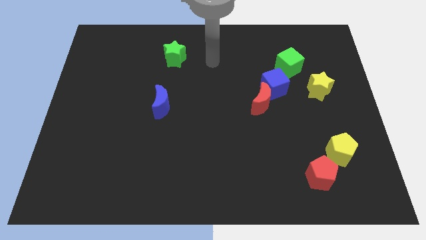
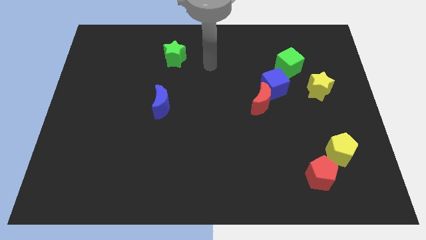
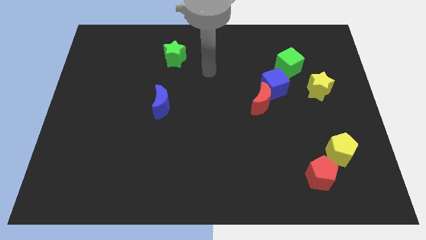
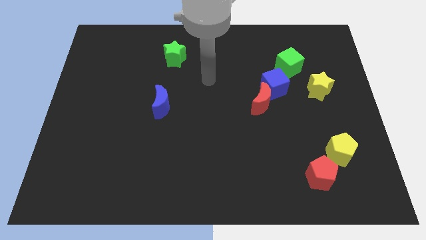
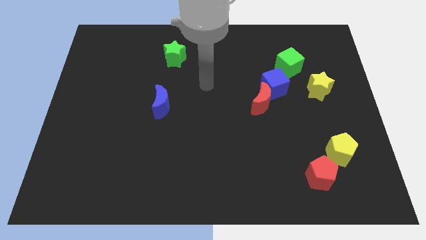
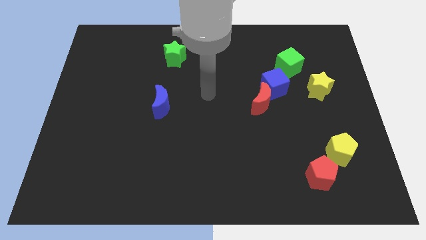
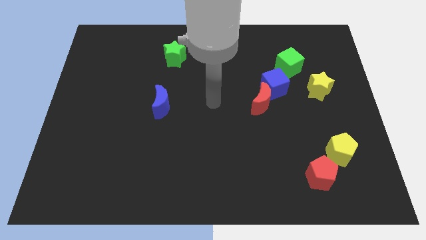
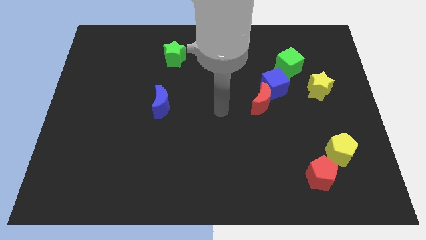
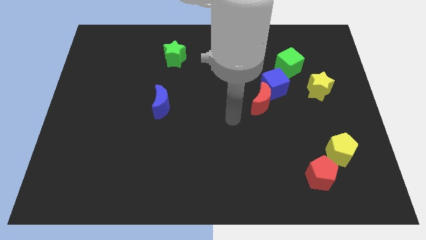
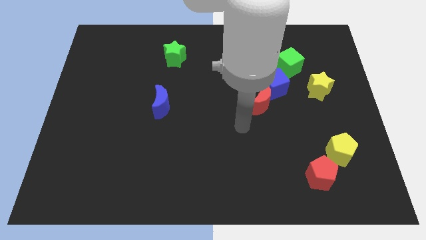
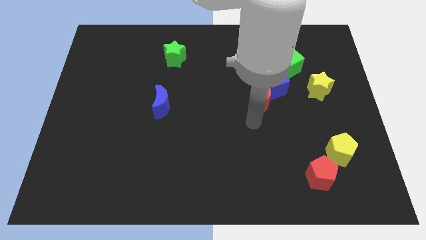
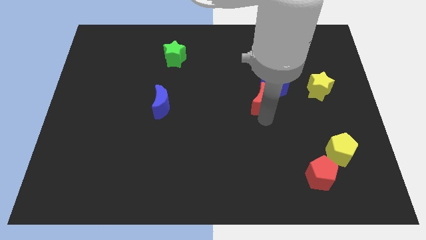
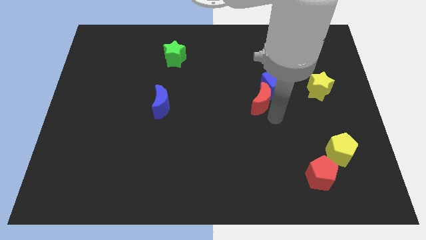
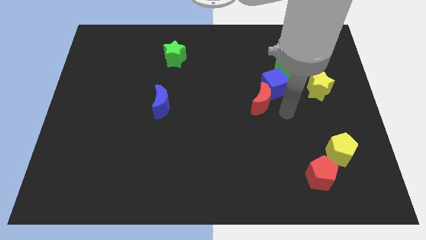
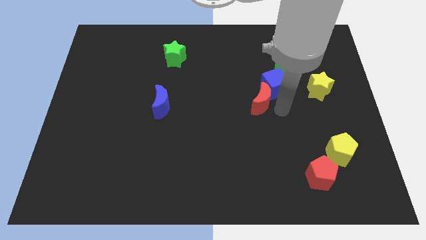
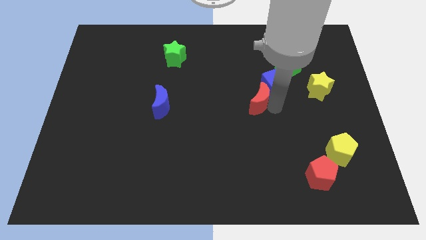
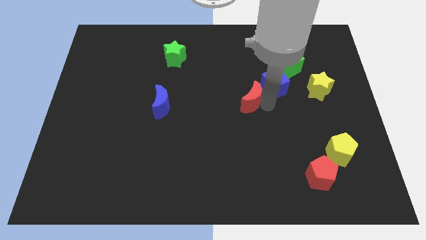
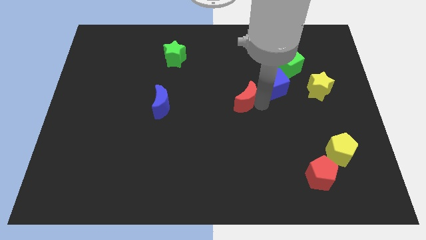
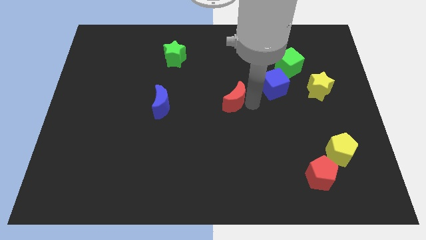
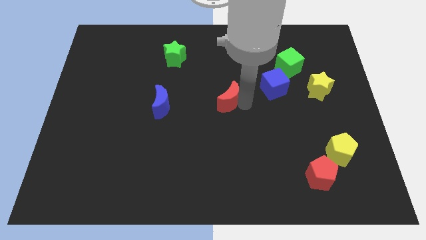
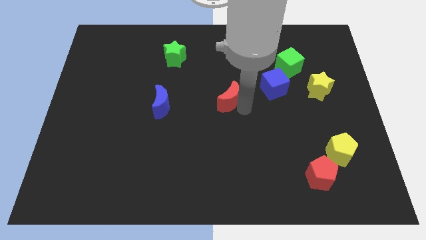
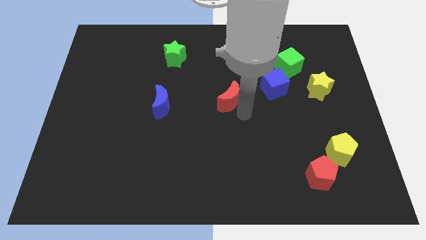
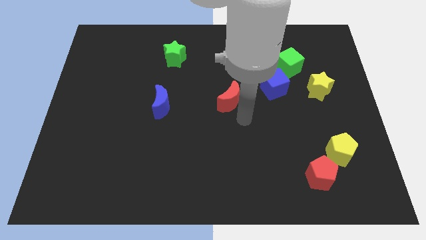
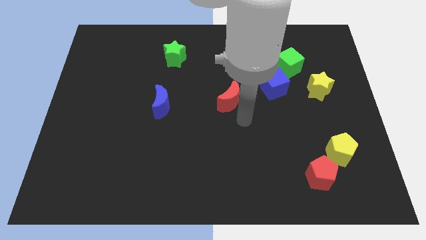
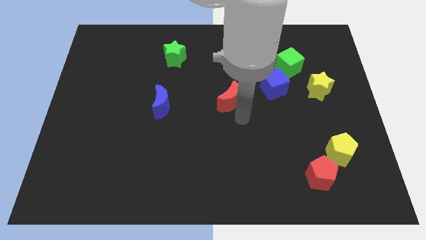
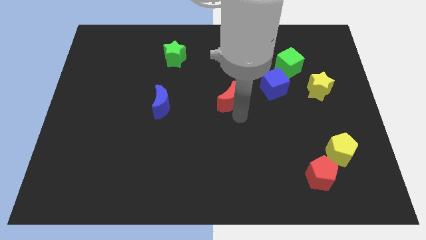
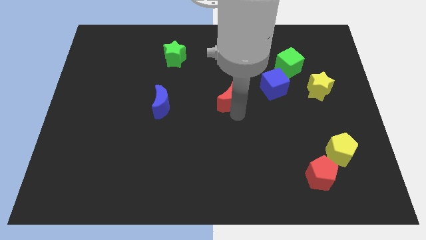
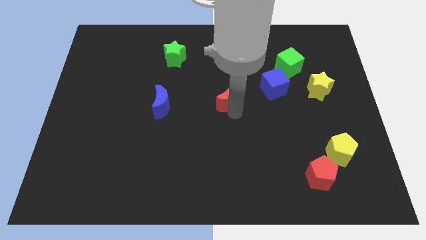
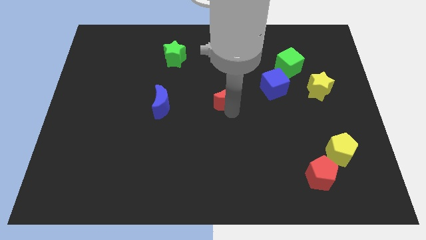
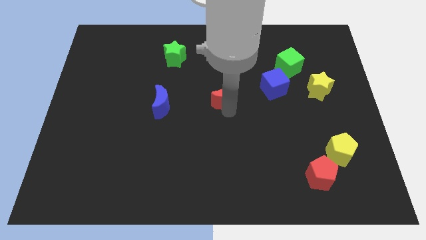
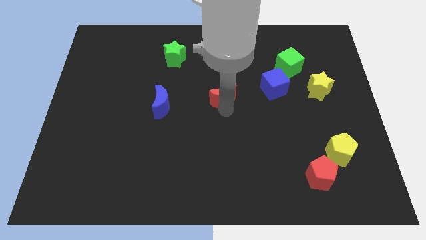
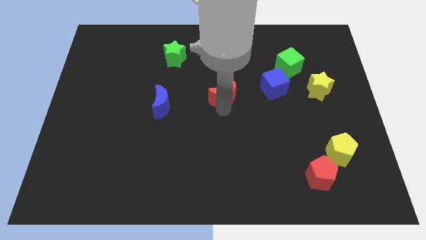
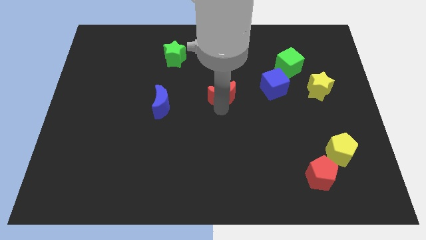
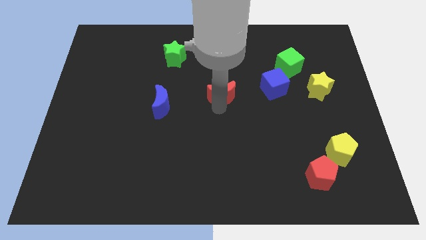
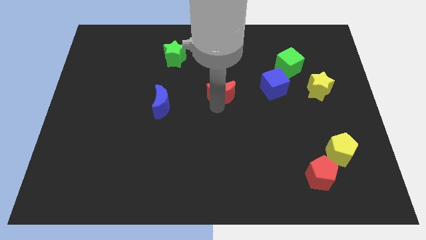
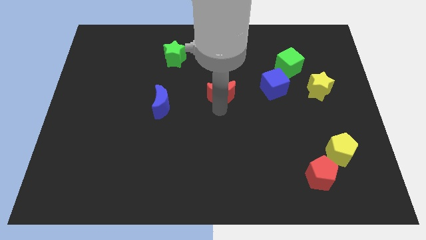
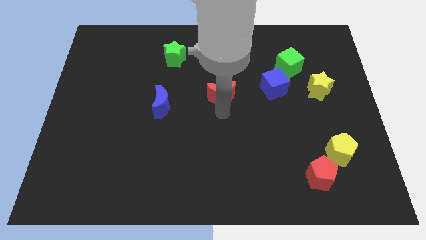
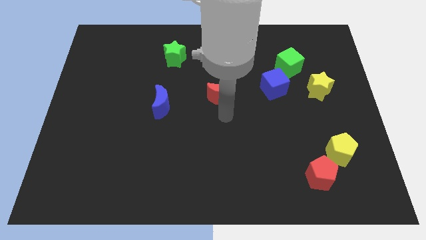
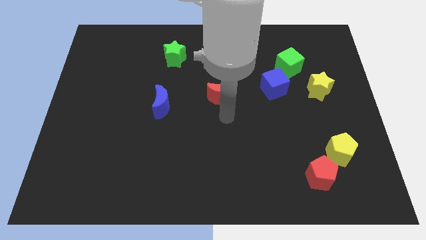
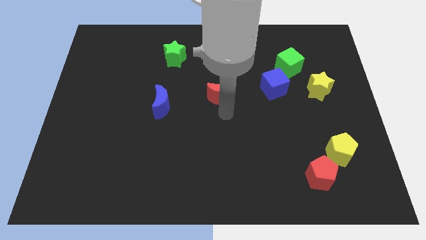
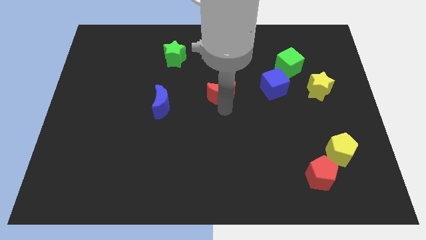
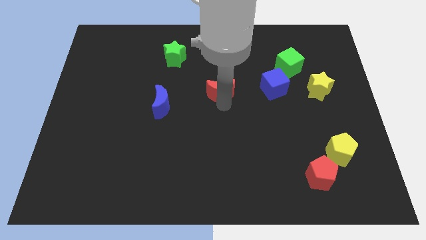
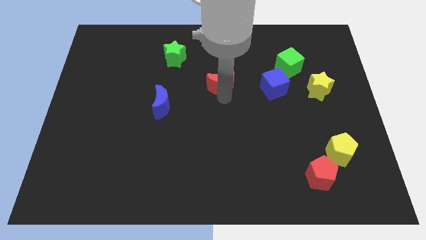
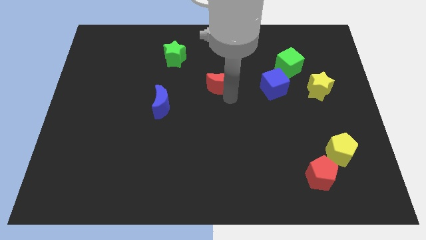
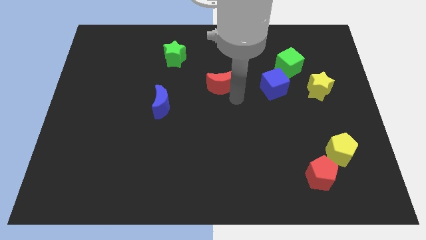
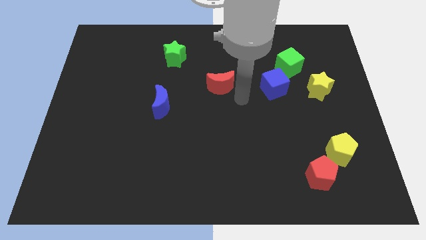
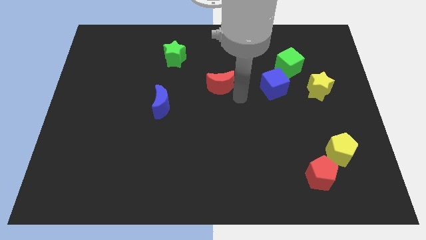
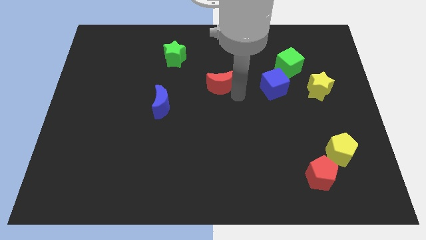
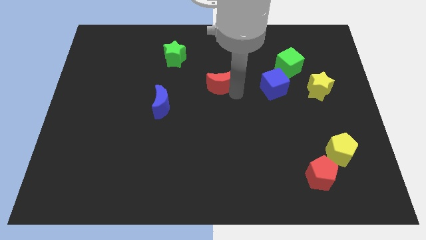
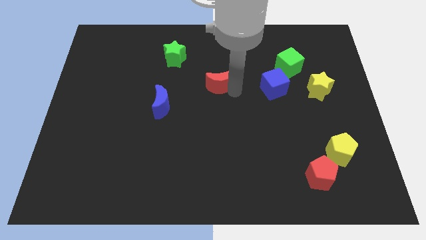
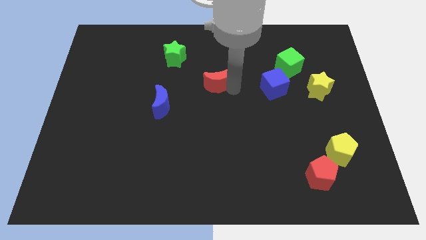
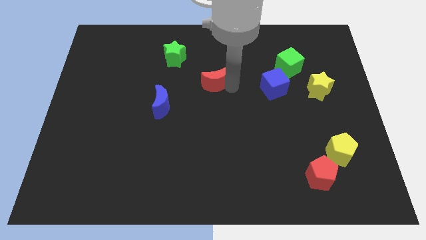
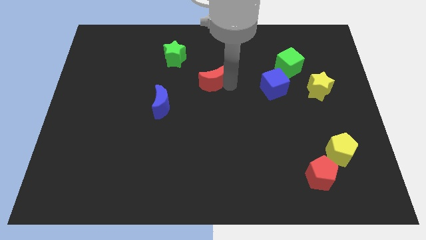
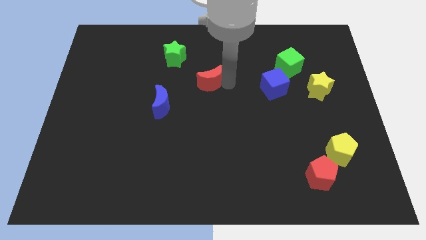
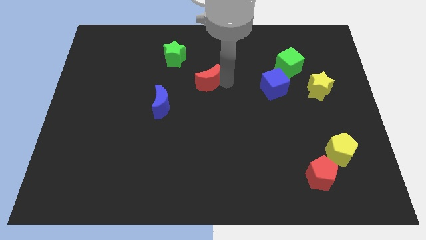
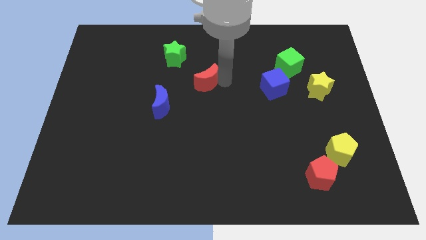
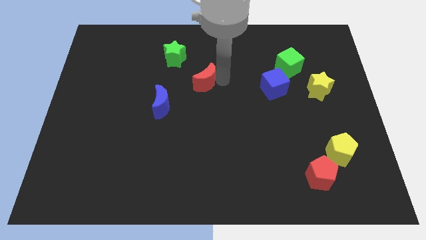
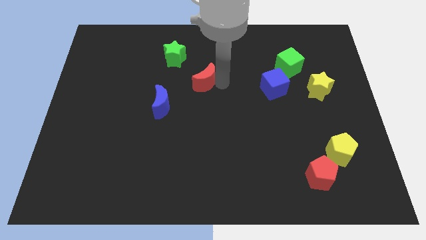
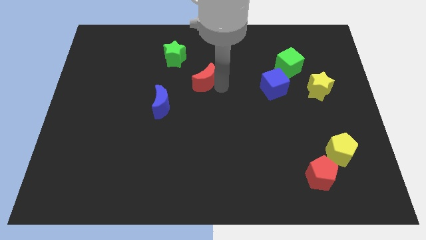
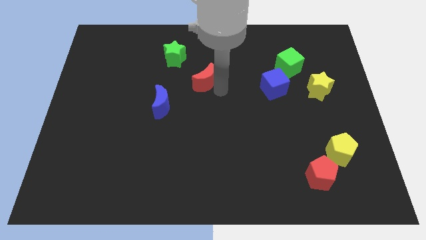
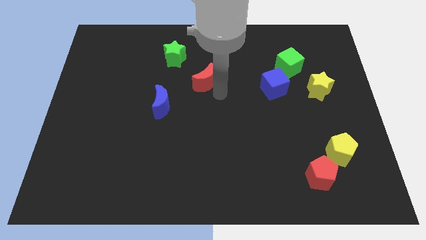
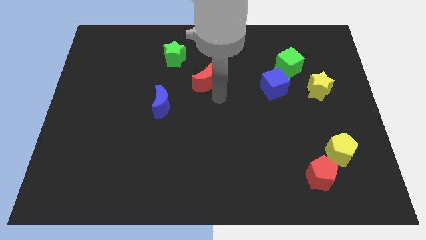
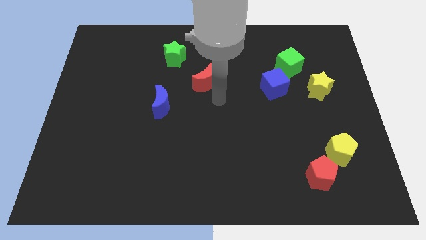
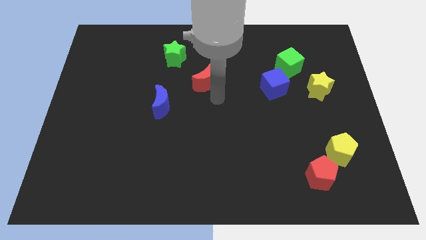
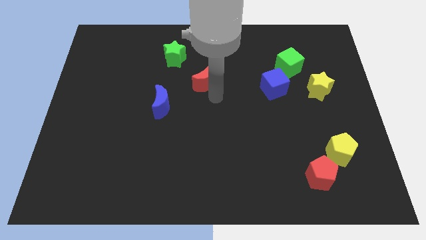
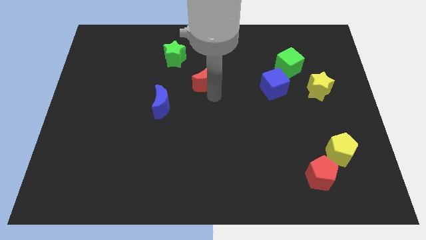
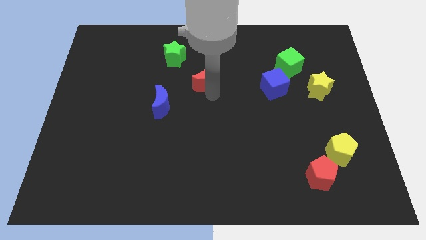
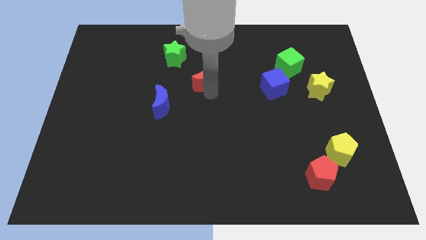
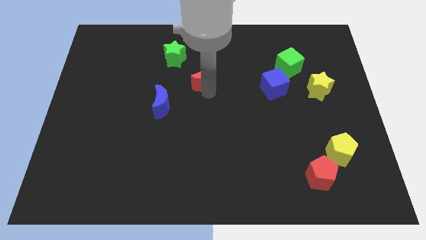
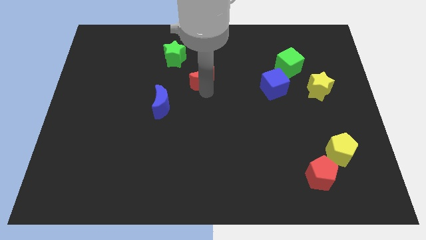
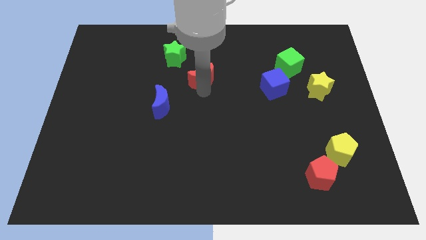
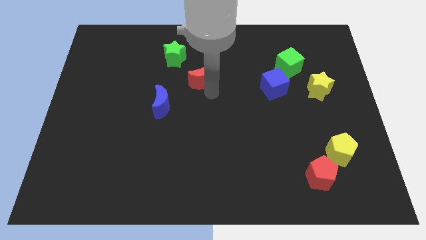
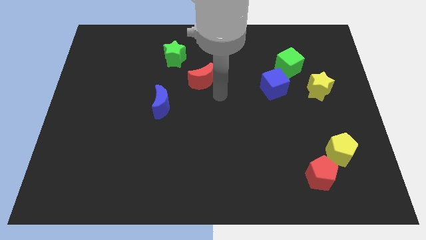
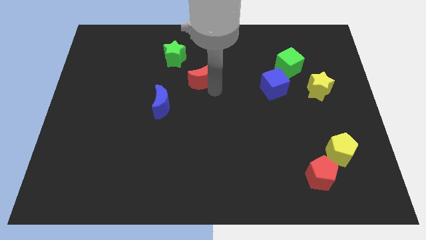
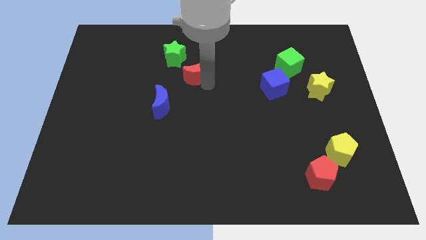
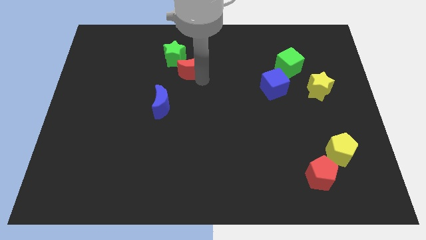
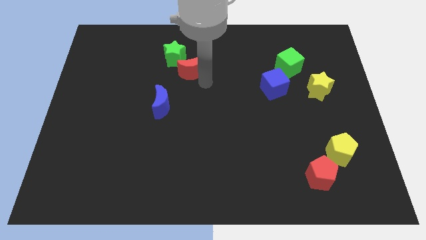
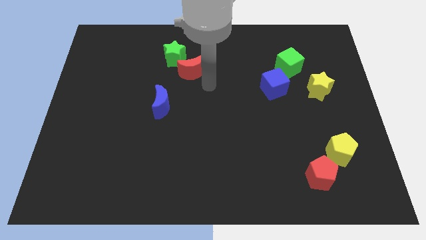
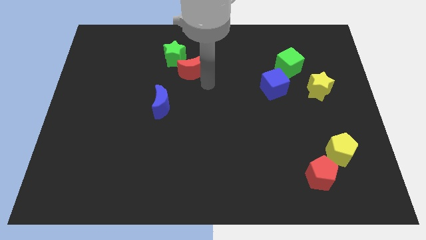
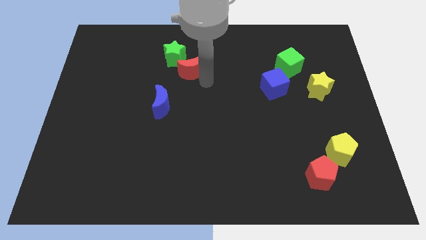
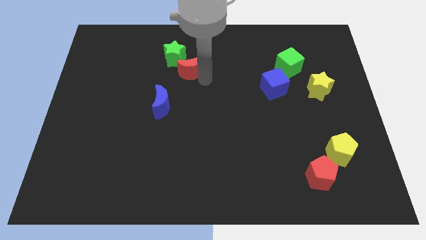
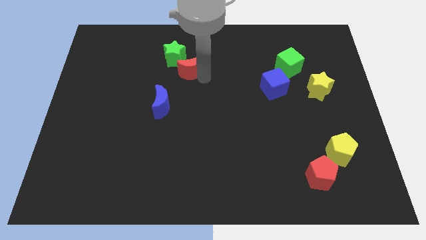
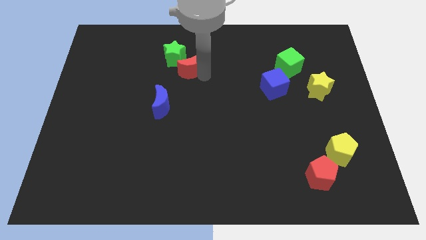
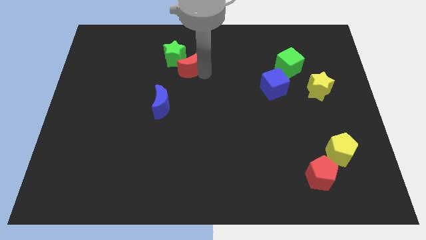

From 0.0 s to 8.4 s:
put the red moon to the green star
